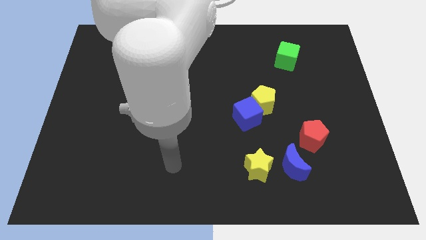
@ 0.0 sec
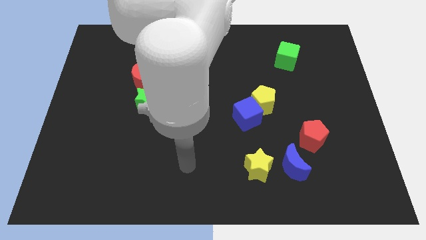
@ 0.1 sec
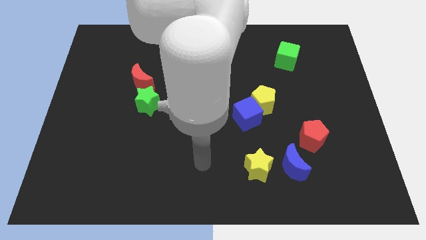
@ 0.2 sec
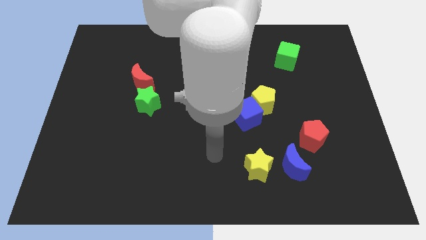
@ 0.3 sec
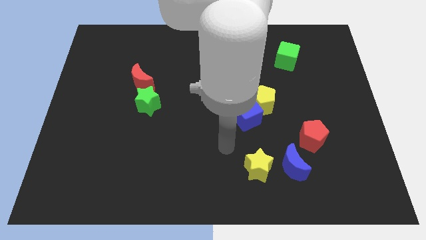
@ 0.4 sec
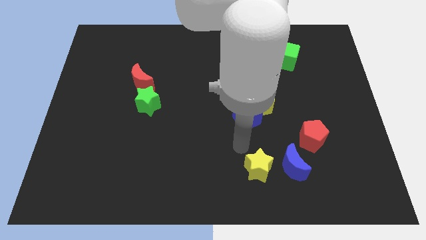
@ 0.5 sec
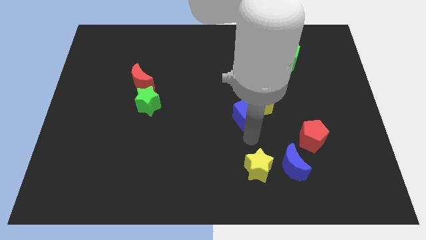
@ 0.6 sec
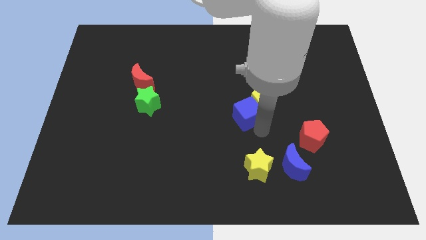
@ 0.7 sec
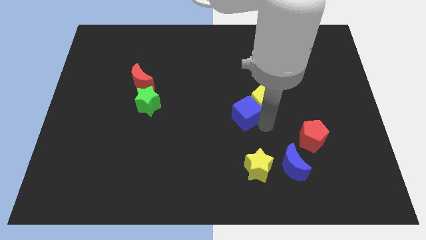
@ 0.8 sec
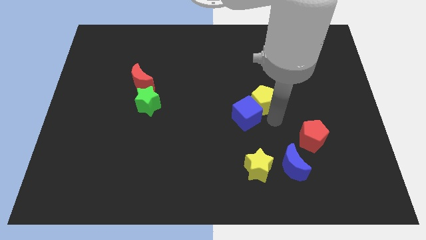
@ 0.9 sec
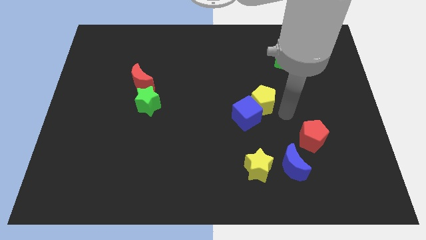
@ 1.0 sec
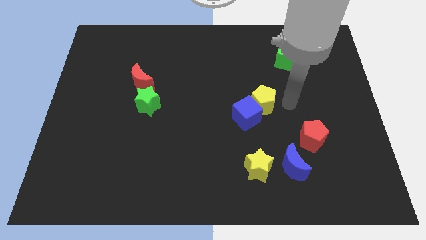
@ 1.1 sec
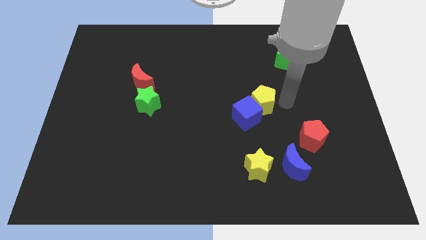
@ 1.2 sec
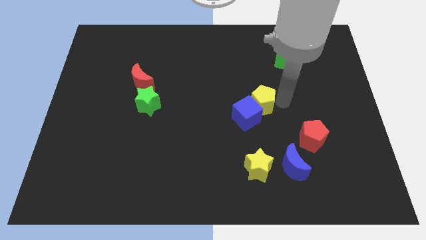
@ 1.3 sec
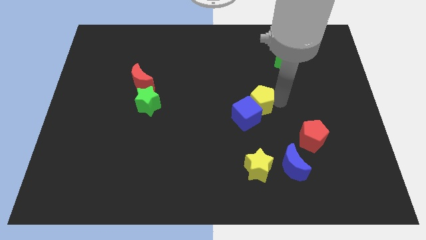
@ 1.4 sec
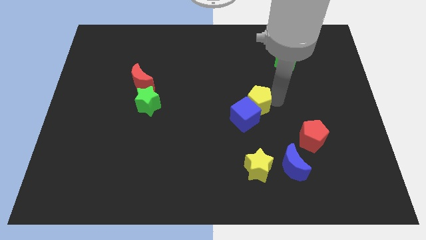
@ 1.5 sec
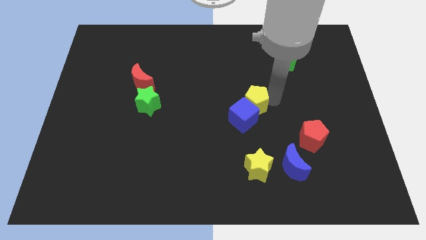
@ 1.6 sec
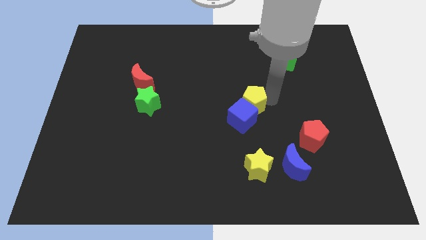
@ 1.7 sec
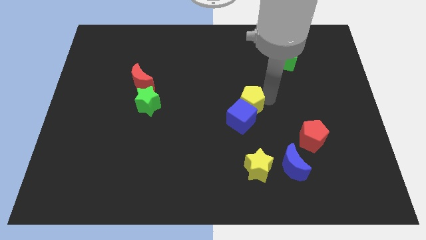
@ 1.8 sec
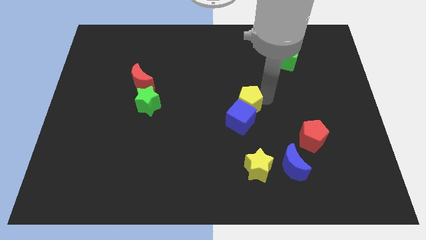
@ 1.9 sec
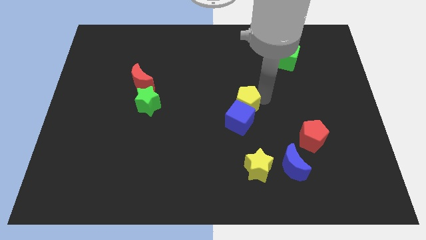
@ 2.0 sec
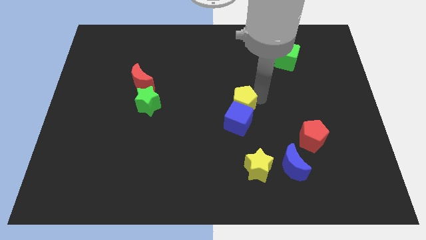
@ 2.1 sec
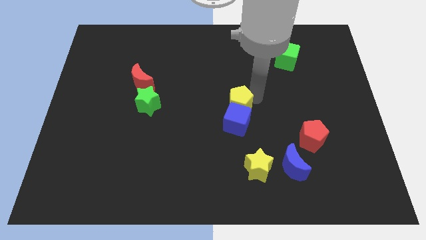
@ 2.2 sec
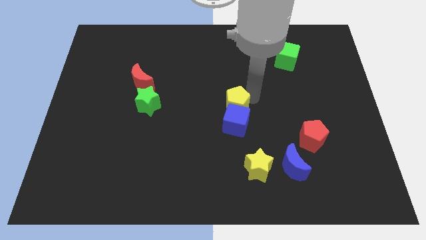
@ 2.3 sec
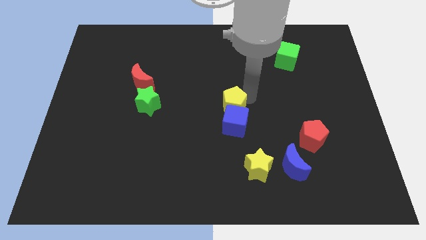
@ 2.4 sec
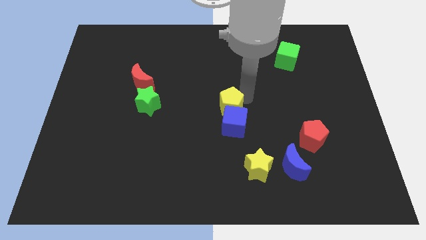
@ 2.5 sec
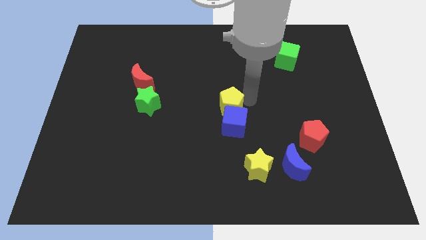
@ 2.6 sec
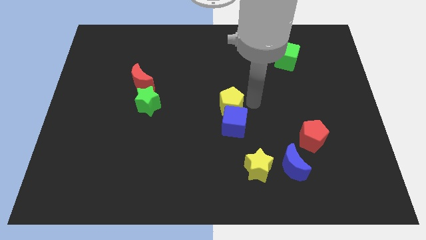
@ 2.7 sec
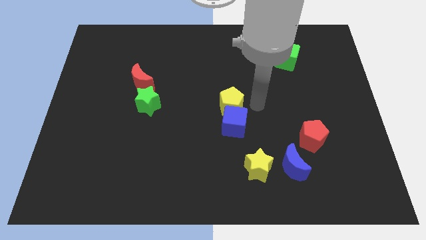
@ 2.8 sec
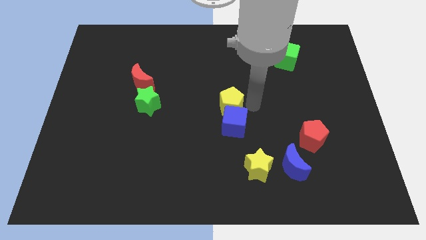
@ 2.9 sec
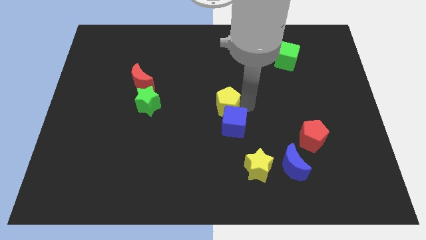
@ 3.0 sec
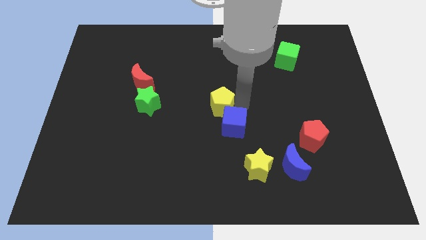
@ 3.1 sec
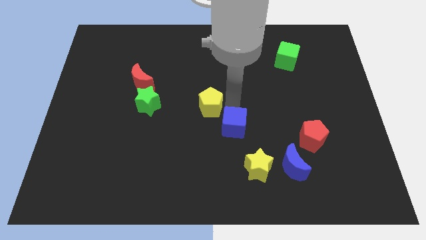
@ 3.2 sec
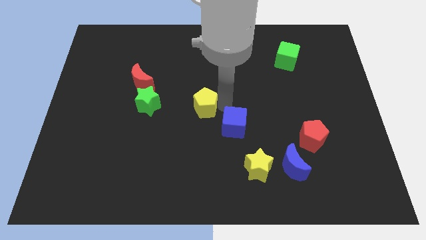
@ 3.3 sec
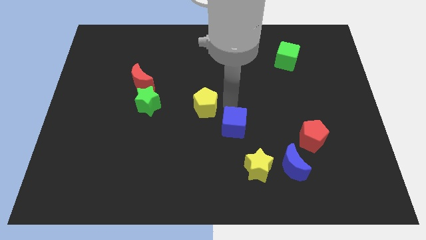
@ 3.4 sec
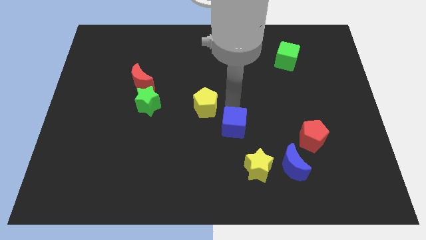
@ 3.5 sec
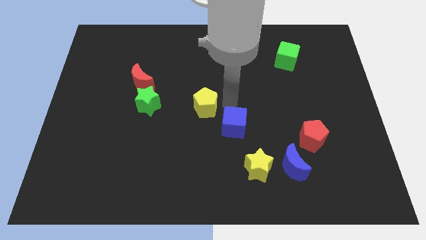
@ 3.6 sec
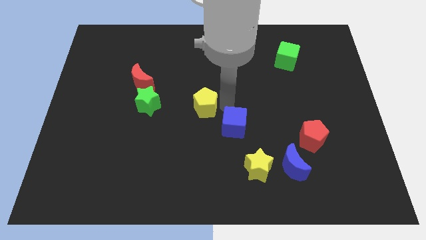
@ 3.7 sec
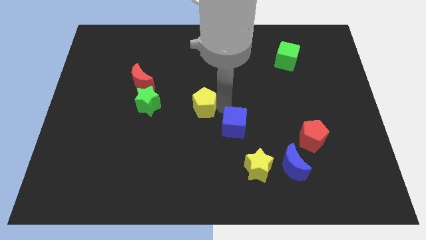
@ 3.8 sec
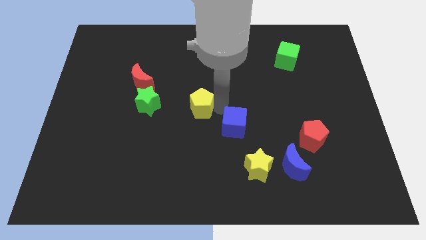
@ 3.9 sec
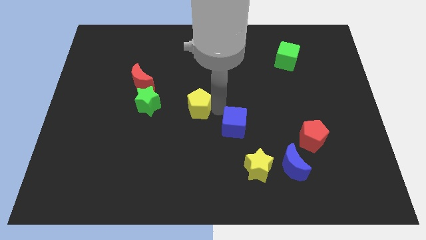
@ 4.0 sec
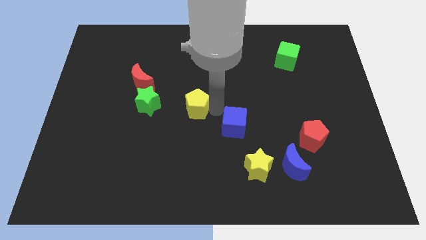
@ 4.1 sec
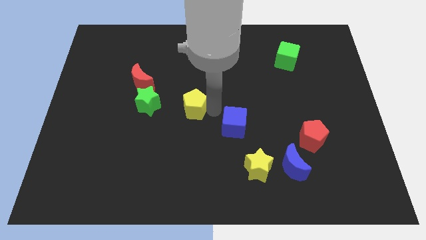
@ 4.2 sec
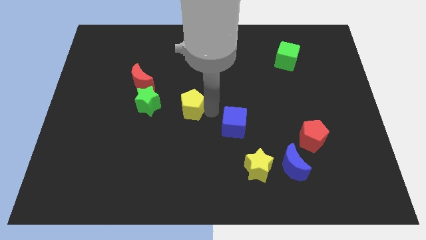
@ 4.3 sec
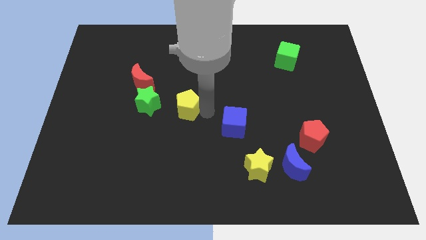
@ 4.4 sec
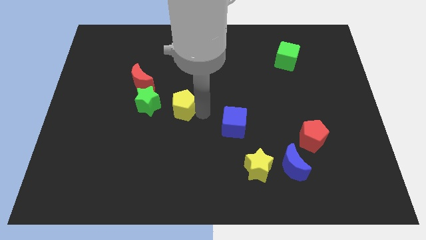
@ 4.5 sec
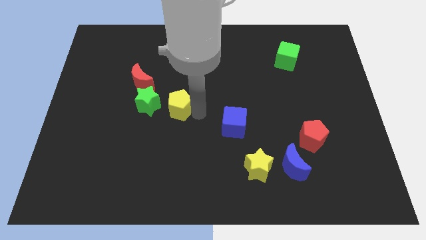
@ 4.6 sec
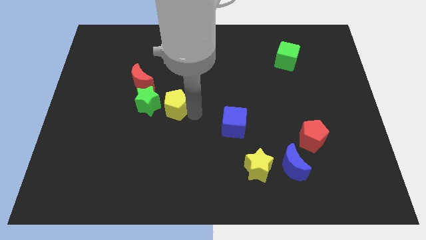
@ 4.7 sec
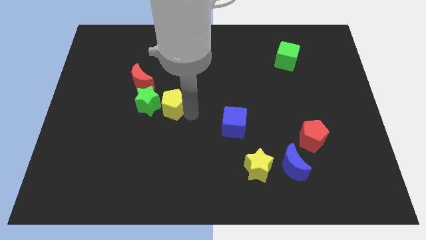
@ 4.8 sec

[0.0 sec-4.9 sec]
move the yellow pentagon close to the green star

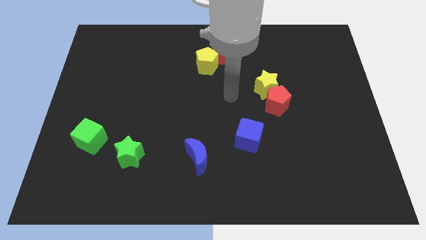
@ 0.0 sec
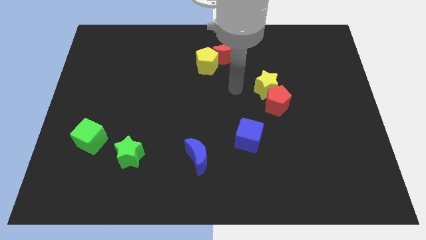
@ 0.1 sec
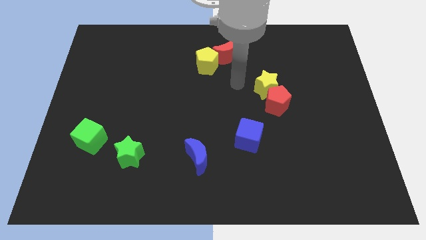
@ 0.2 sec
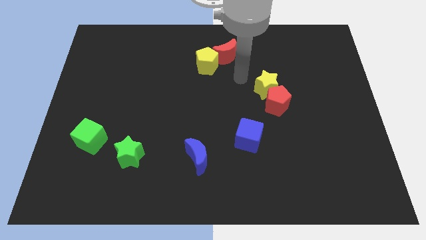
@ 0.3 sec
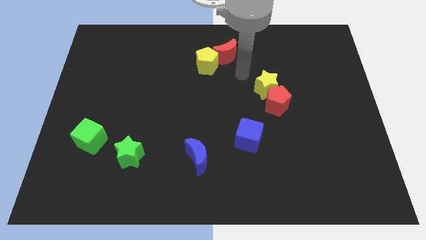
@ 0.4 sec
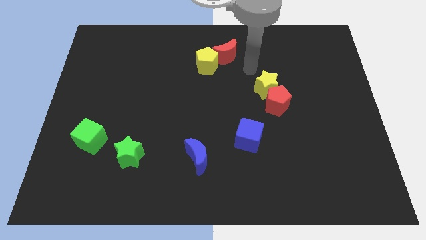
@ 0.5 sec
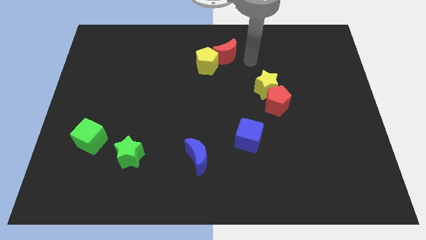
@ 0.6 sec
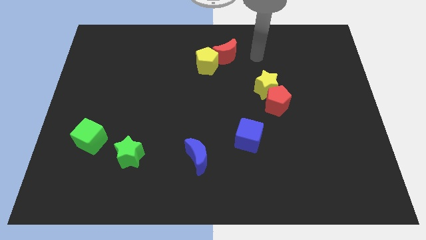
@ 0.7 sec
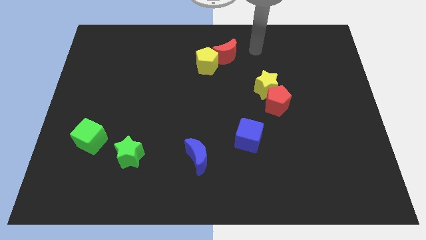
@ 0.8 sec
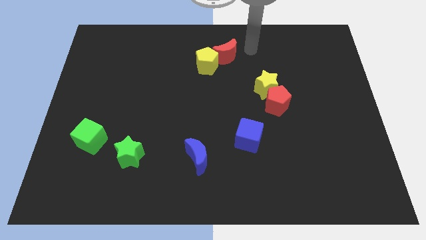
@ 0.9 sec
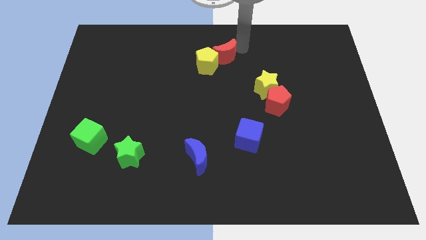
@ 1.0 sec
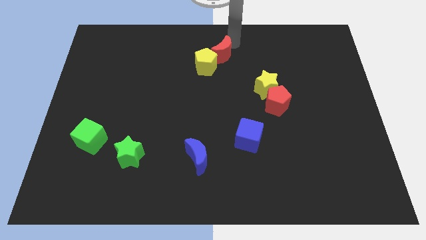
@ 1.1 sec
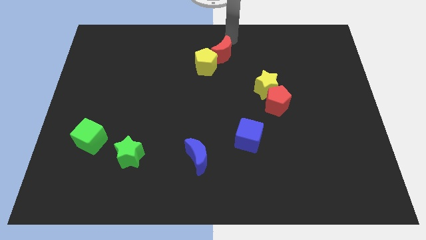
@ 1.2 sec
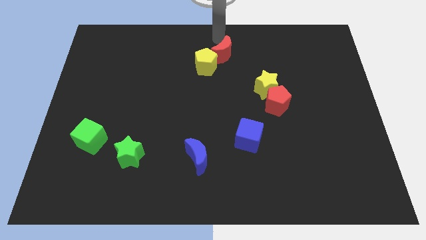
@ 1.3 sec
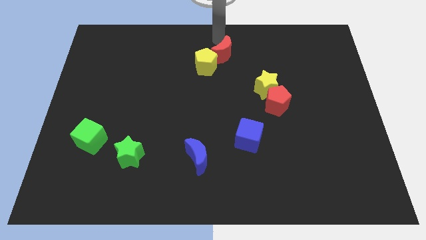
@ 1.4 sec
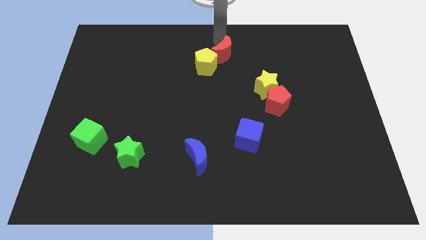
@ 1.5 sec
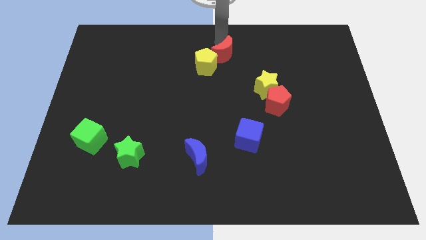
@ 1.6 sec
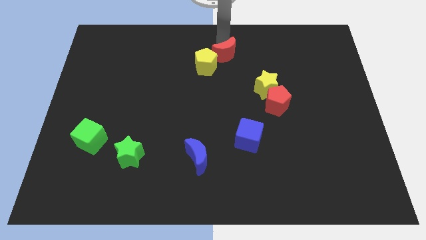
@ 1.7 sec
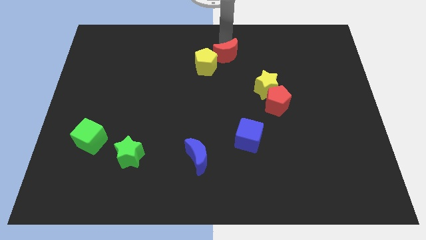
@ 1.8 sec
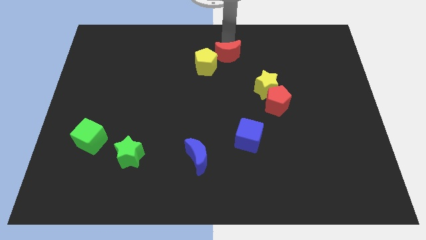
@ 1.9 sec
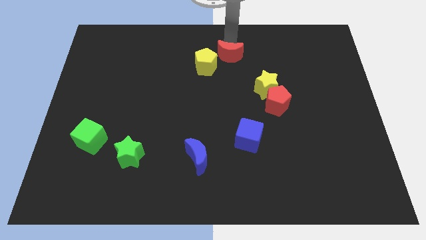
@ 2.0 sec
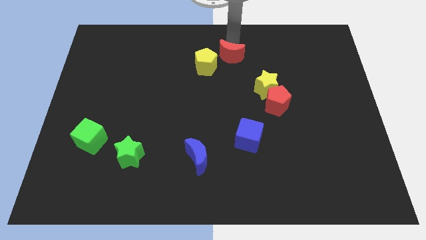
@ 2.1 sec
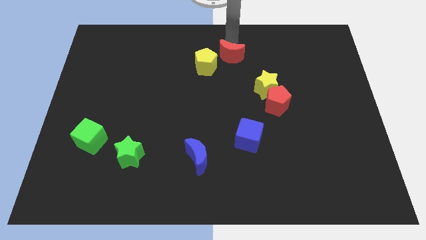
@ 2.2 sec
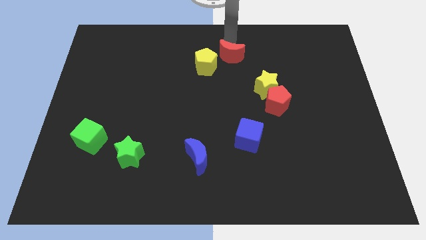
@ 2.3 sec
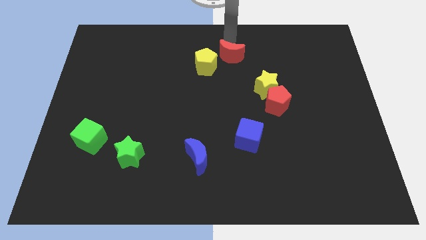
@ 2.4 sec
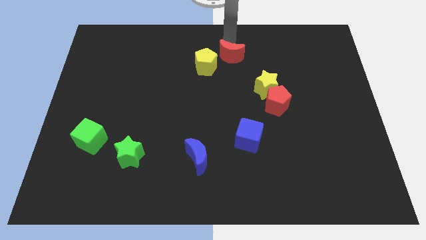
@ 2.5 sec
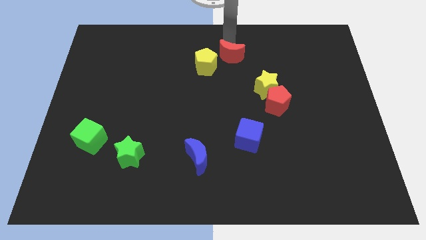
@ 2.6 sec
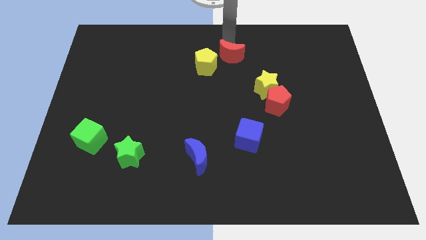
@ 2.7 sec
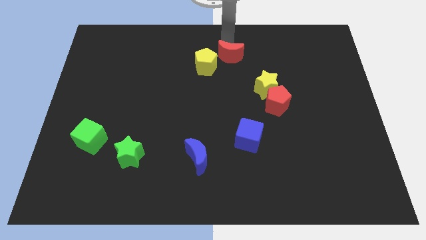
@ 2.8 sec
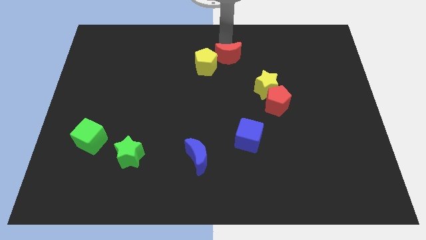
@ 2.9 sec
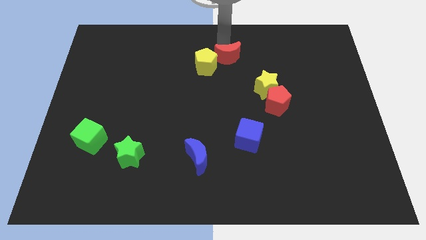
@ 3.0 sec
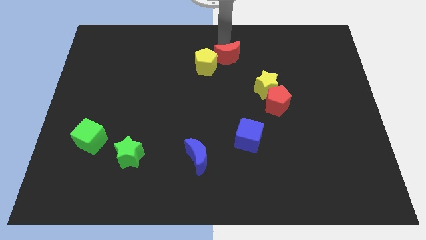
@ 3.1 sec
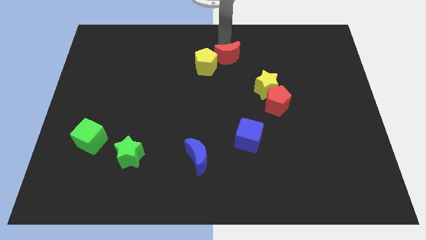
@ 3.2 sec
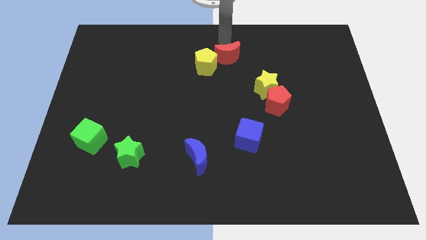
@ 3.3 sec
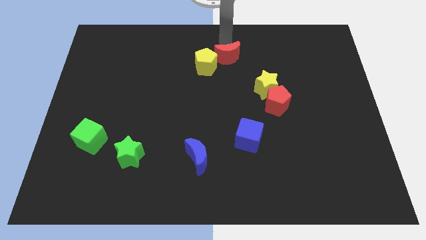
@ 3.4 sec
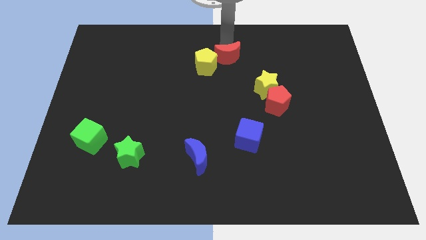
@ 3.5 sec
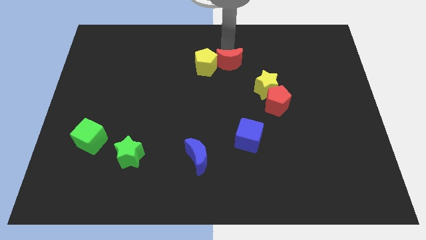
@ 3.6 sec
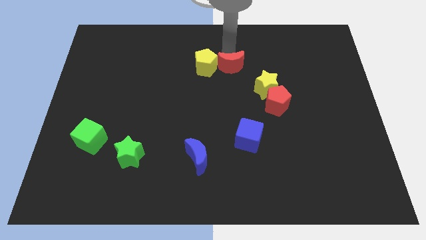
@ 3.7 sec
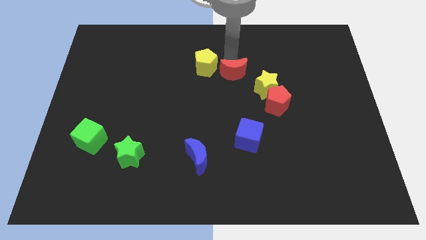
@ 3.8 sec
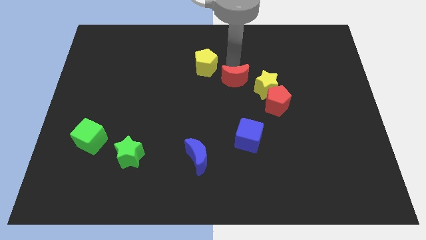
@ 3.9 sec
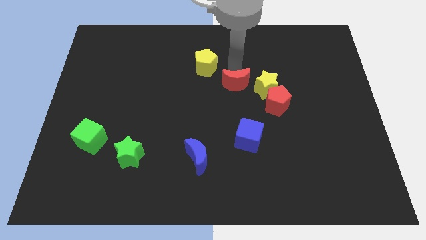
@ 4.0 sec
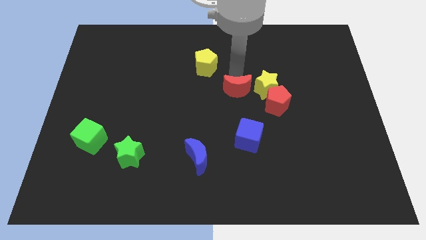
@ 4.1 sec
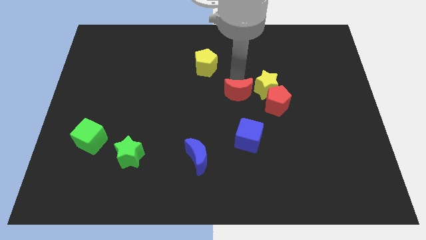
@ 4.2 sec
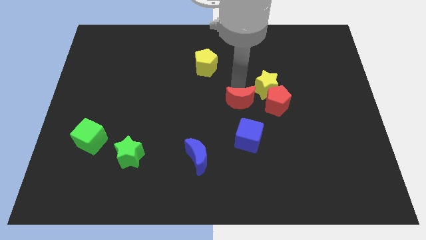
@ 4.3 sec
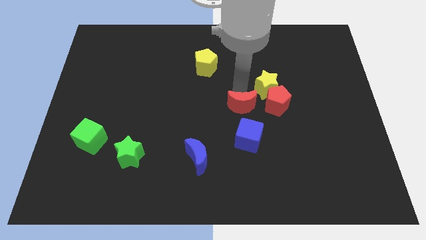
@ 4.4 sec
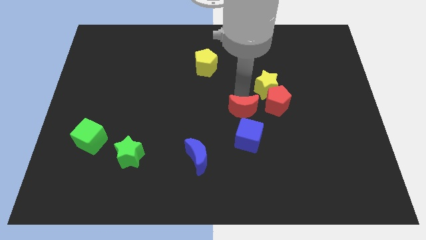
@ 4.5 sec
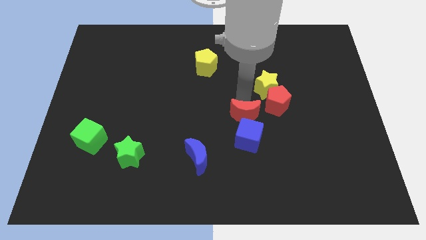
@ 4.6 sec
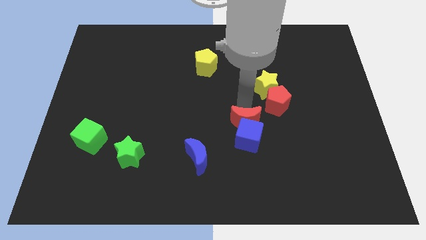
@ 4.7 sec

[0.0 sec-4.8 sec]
put the red moon to the blue cube
